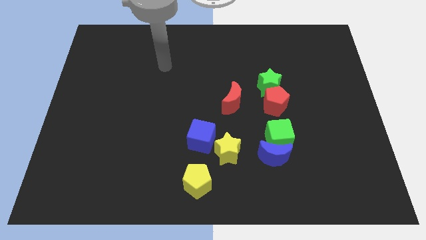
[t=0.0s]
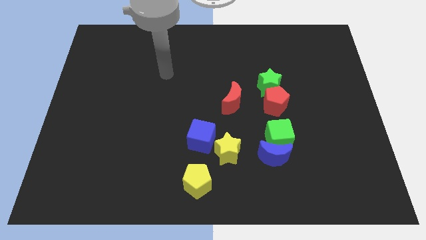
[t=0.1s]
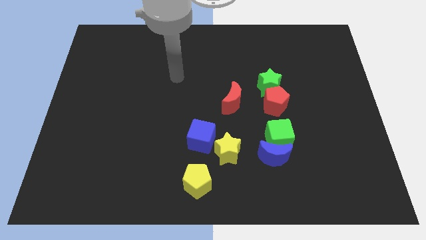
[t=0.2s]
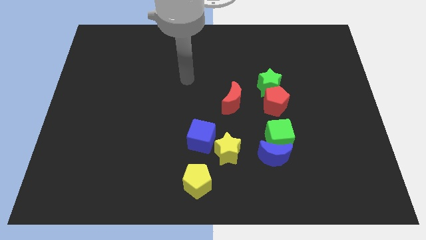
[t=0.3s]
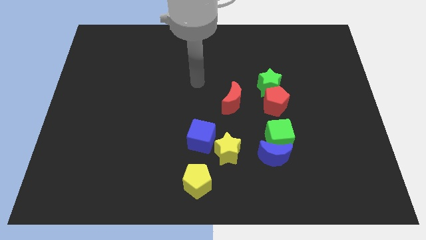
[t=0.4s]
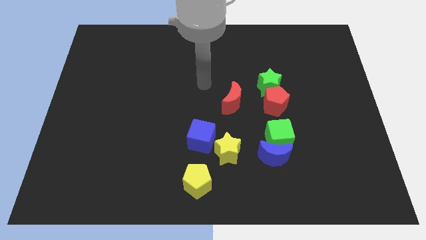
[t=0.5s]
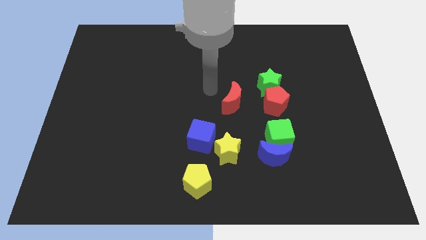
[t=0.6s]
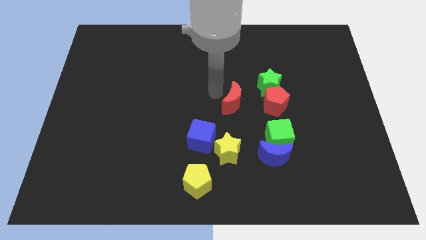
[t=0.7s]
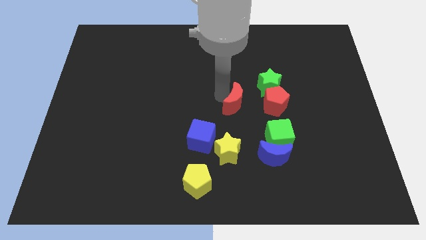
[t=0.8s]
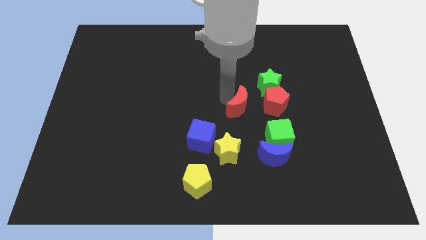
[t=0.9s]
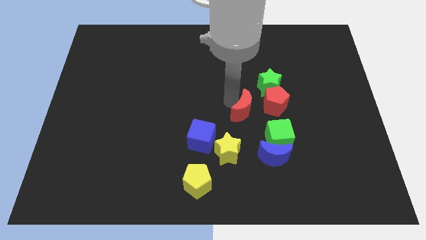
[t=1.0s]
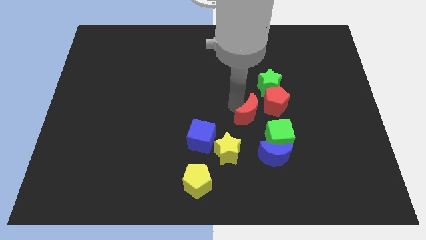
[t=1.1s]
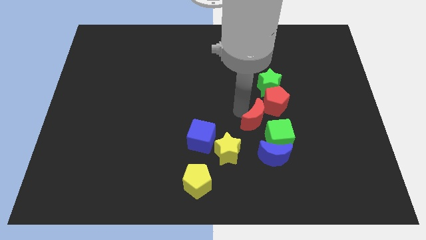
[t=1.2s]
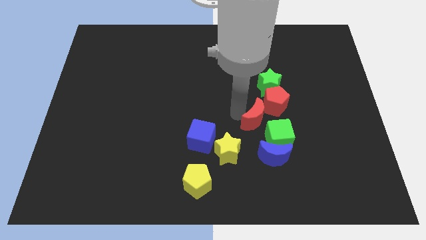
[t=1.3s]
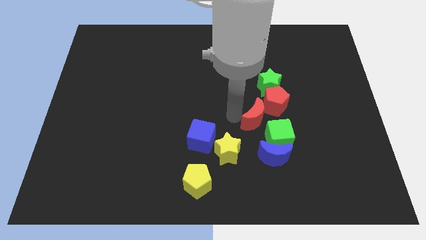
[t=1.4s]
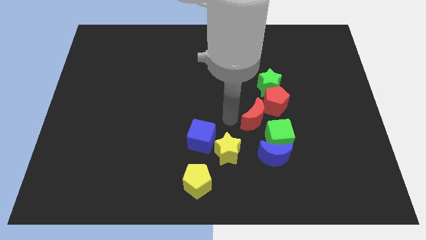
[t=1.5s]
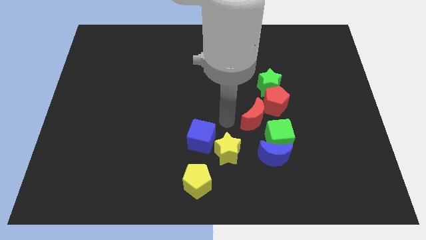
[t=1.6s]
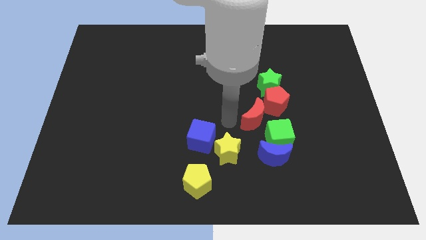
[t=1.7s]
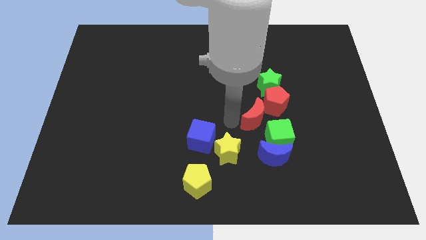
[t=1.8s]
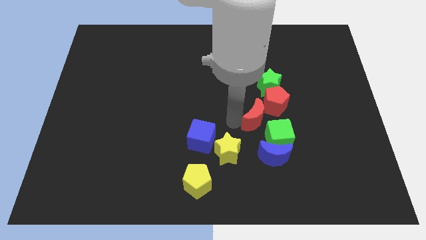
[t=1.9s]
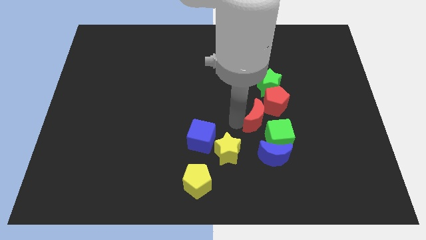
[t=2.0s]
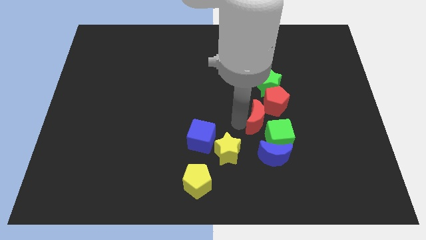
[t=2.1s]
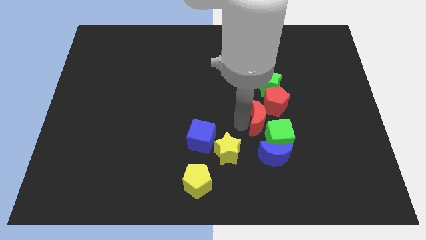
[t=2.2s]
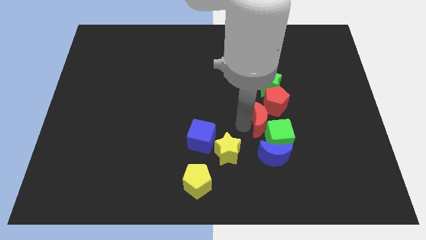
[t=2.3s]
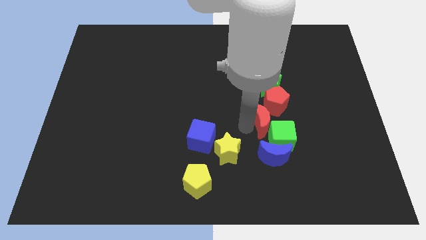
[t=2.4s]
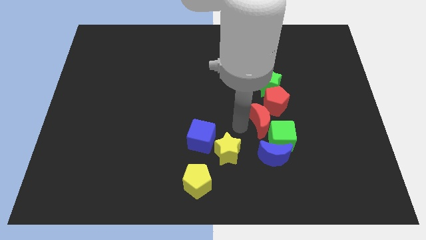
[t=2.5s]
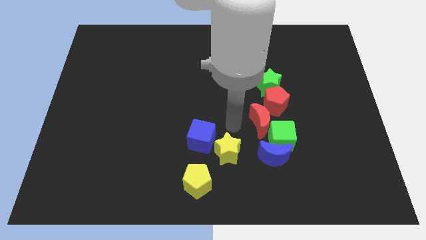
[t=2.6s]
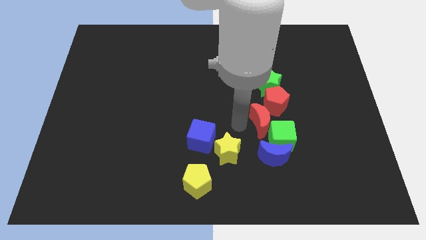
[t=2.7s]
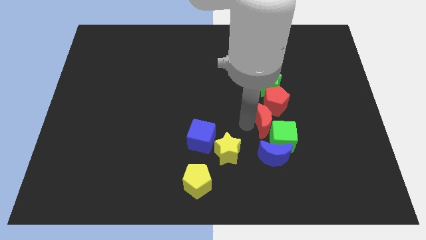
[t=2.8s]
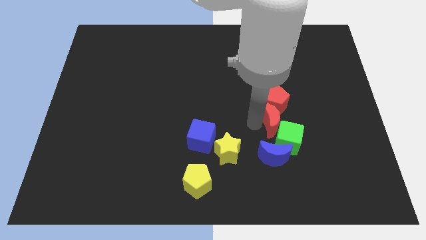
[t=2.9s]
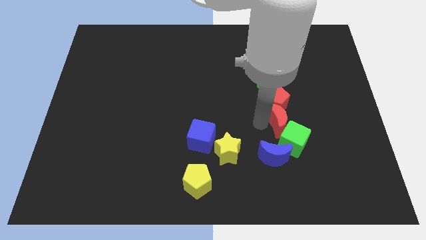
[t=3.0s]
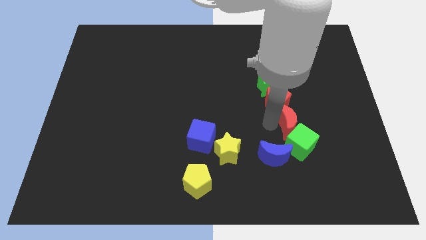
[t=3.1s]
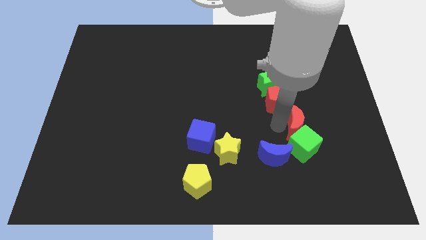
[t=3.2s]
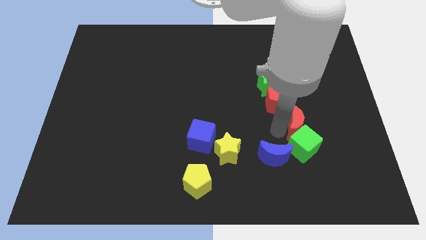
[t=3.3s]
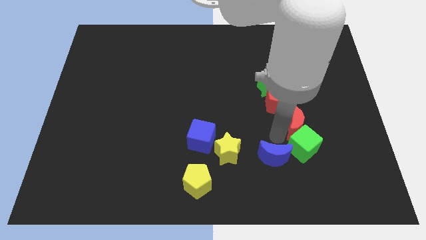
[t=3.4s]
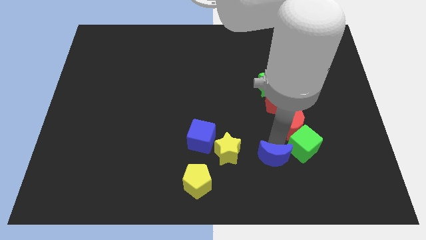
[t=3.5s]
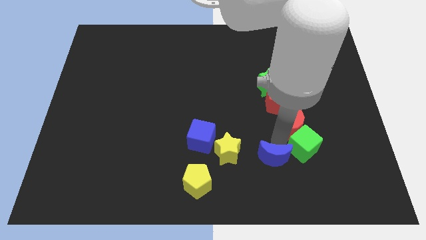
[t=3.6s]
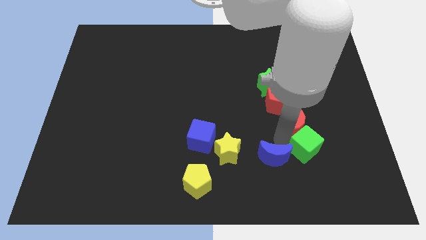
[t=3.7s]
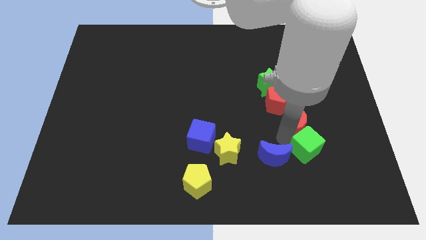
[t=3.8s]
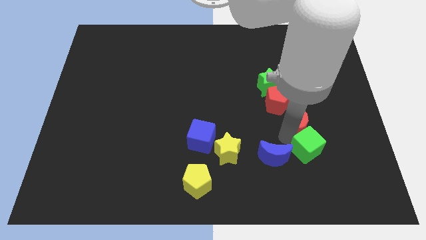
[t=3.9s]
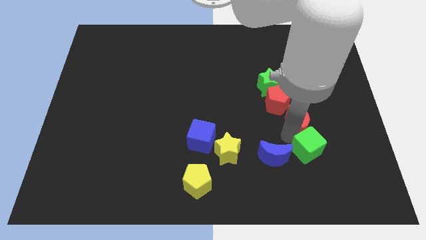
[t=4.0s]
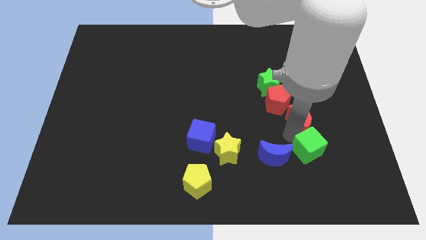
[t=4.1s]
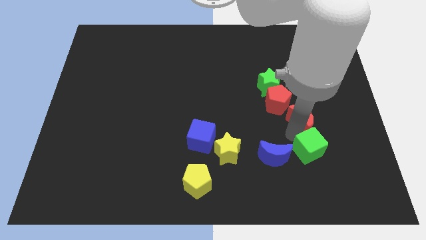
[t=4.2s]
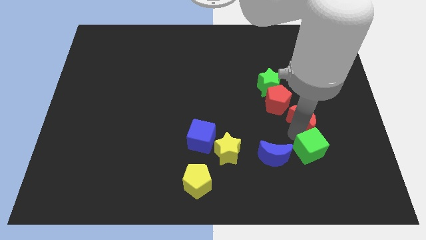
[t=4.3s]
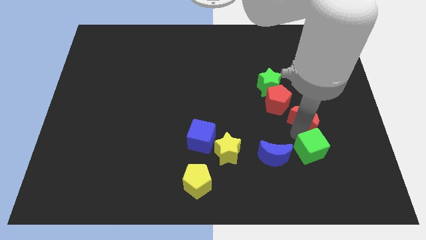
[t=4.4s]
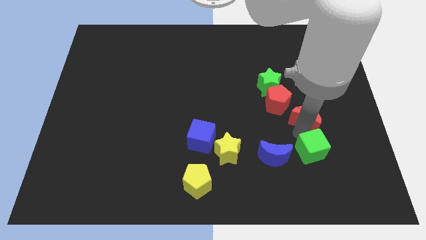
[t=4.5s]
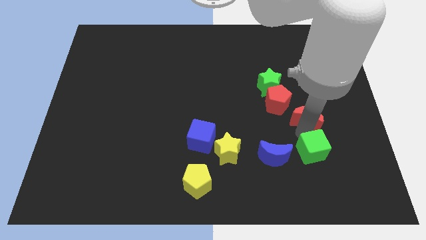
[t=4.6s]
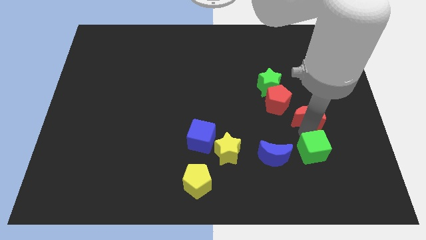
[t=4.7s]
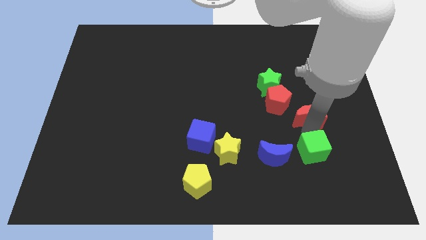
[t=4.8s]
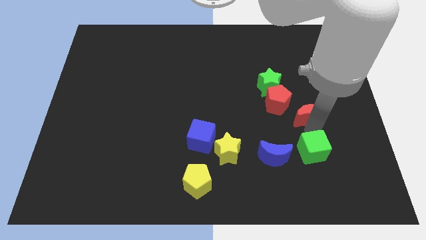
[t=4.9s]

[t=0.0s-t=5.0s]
put the red moon diagonally down and to the right of the green star

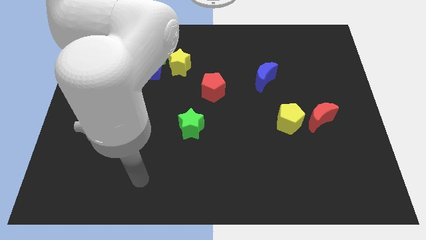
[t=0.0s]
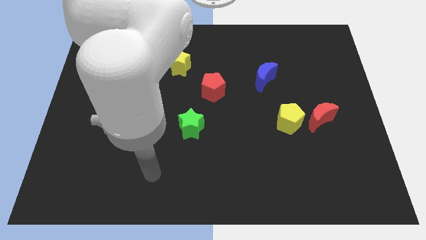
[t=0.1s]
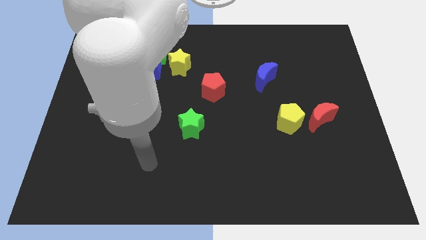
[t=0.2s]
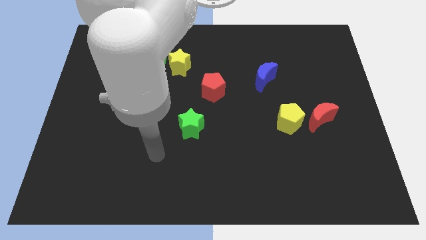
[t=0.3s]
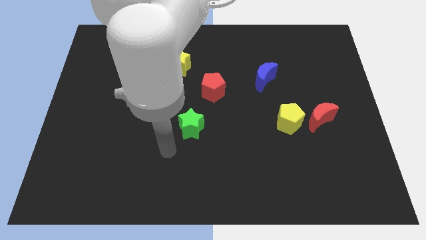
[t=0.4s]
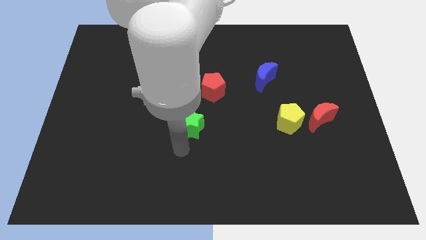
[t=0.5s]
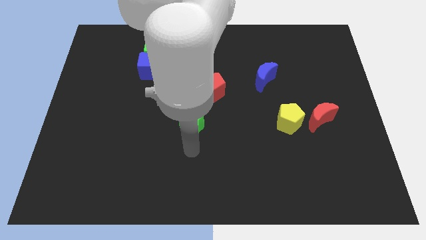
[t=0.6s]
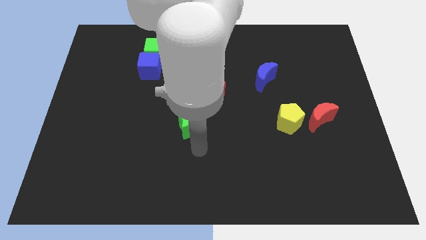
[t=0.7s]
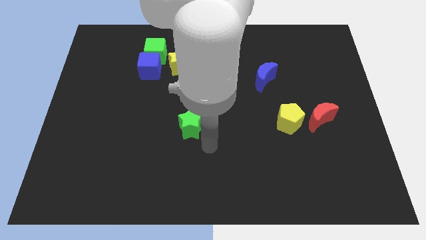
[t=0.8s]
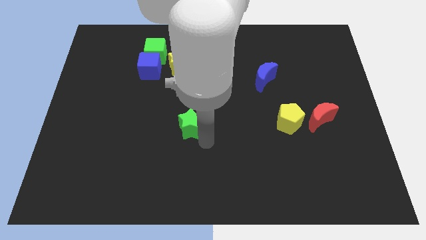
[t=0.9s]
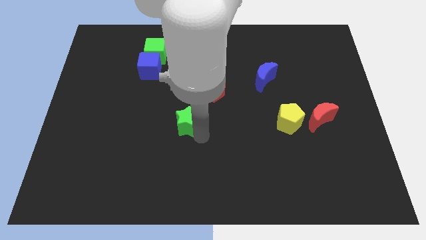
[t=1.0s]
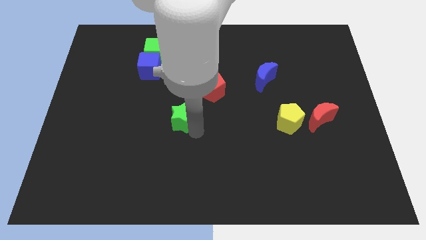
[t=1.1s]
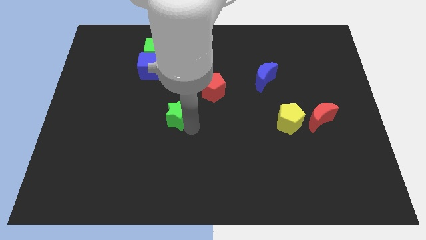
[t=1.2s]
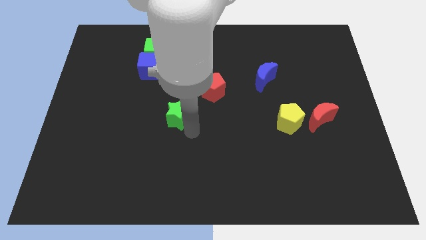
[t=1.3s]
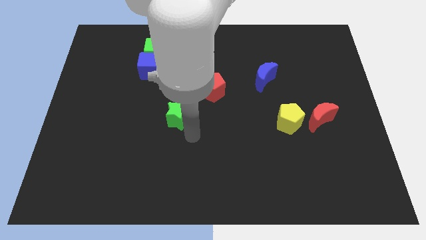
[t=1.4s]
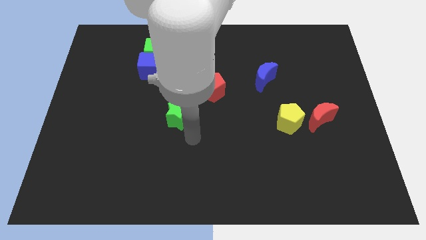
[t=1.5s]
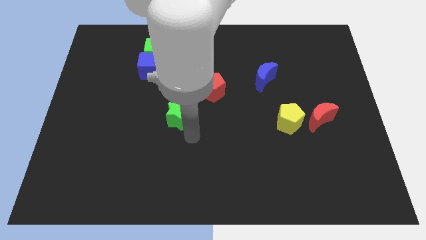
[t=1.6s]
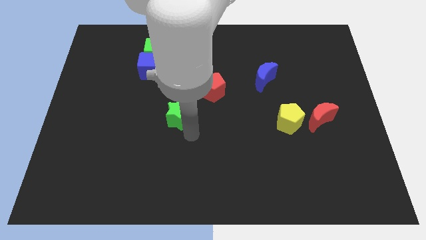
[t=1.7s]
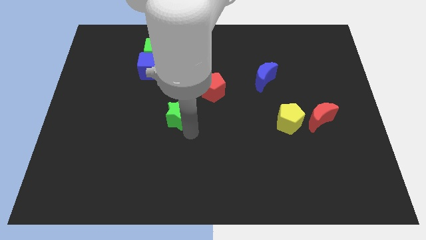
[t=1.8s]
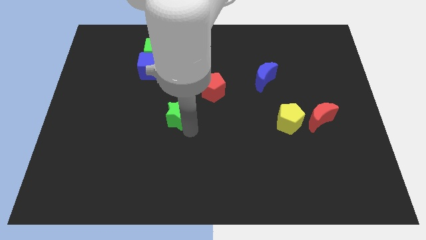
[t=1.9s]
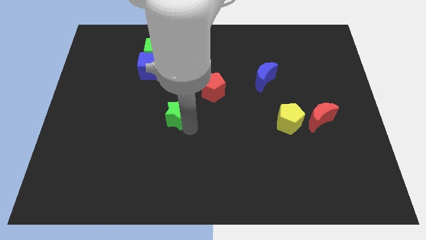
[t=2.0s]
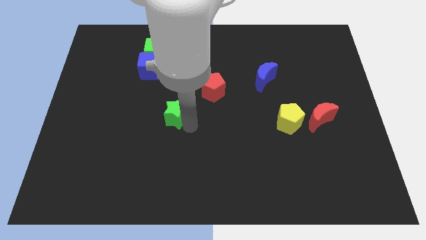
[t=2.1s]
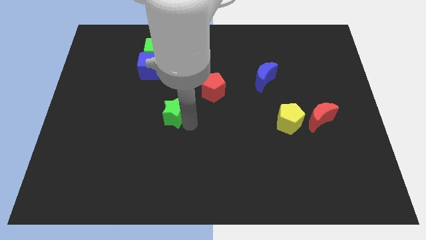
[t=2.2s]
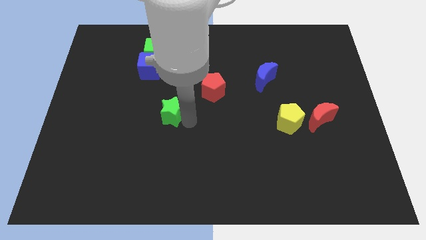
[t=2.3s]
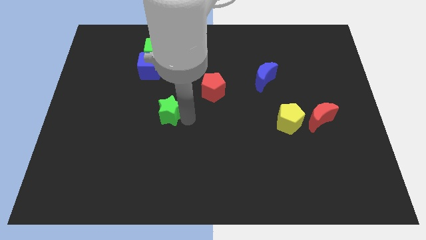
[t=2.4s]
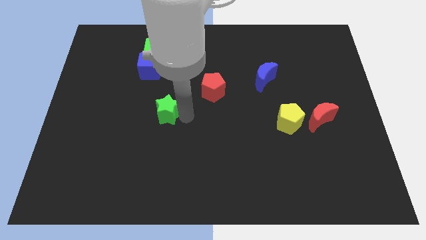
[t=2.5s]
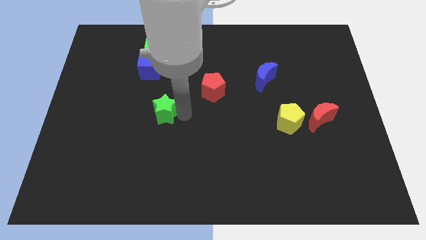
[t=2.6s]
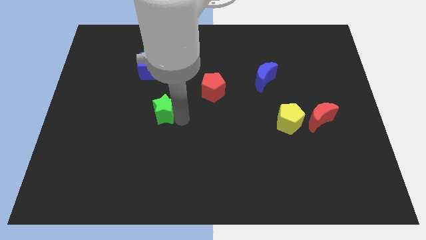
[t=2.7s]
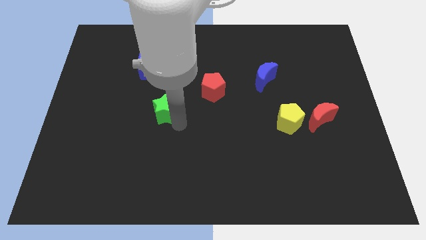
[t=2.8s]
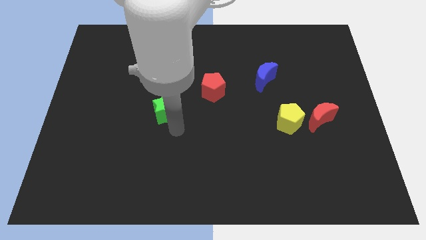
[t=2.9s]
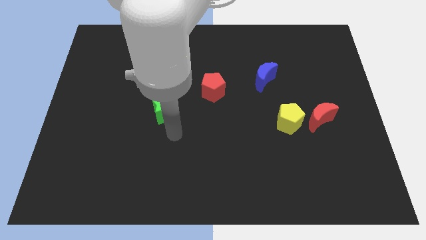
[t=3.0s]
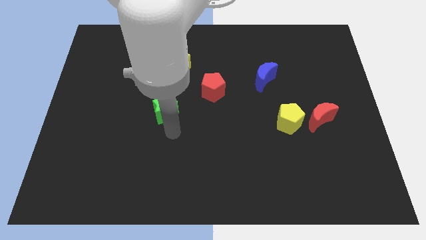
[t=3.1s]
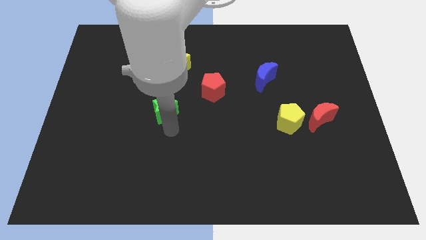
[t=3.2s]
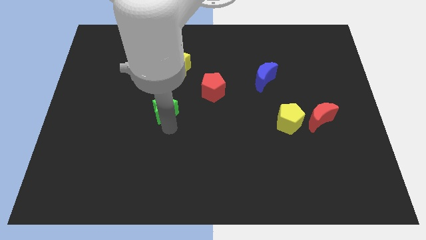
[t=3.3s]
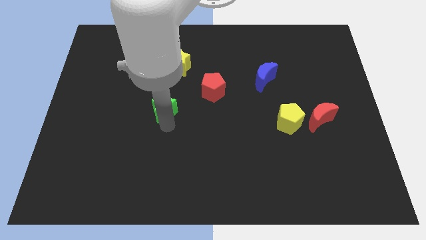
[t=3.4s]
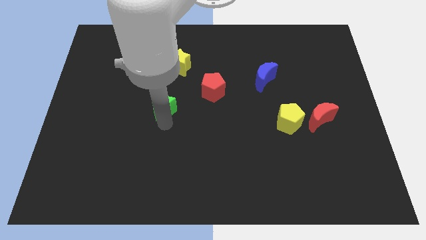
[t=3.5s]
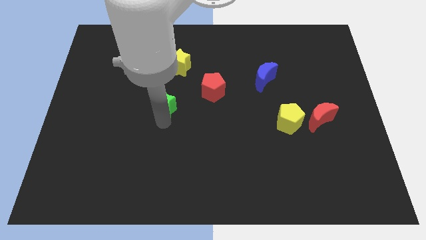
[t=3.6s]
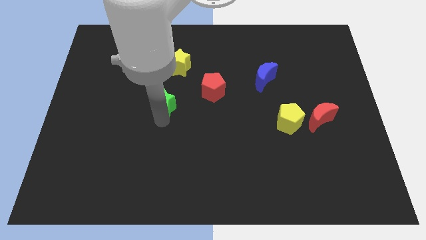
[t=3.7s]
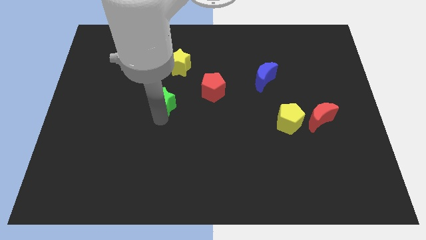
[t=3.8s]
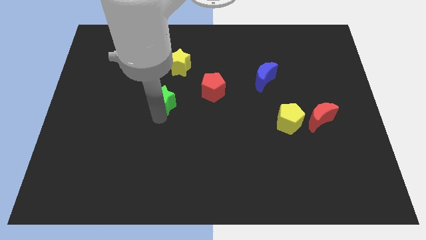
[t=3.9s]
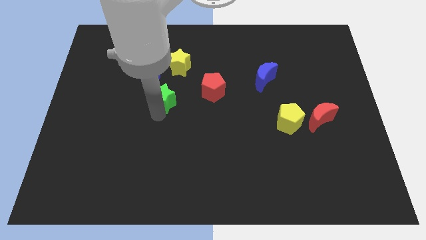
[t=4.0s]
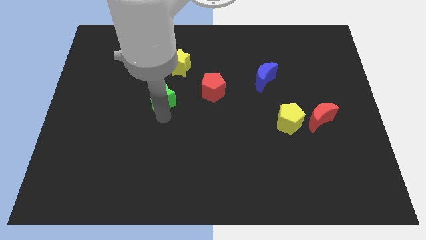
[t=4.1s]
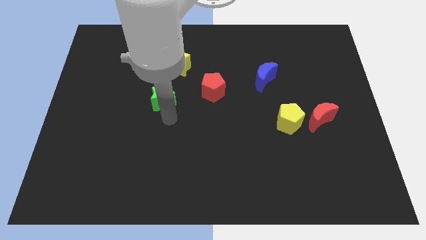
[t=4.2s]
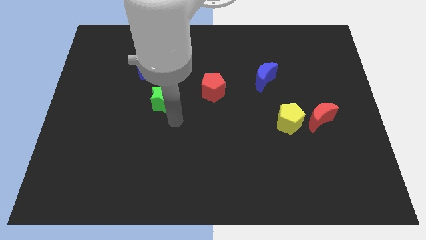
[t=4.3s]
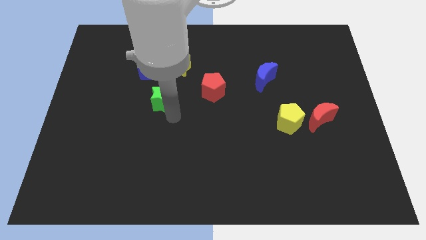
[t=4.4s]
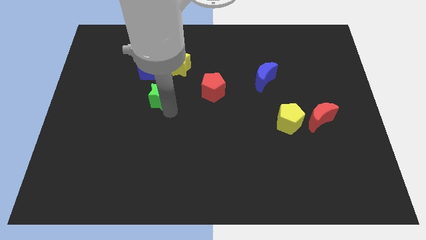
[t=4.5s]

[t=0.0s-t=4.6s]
put the green star to the bottom side of the green cube
